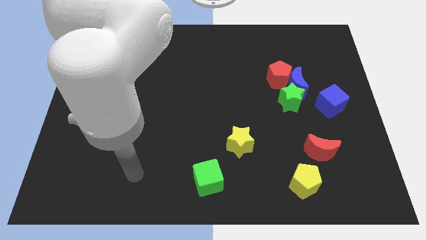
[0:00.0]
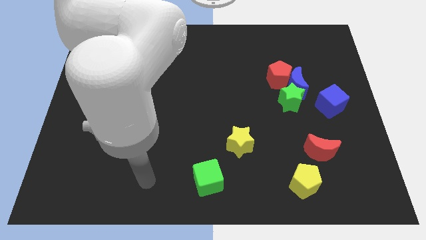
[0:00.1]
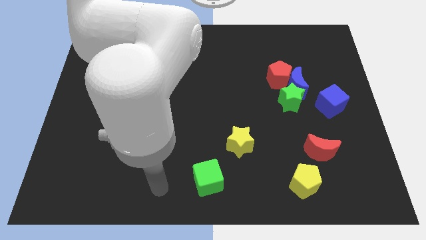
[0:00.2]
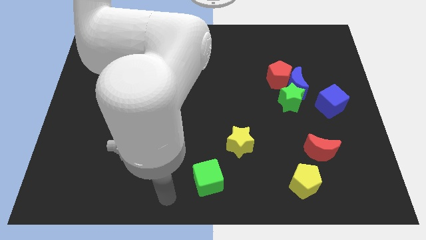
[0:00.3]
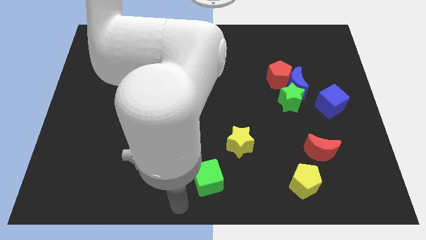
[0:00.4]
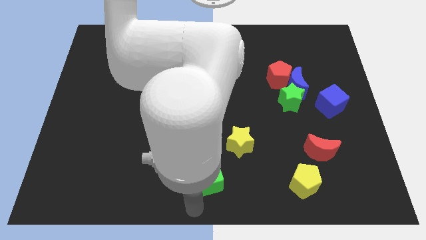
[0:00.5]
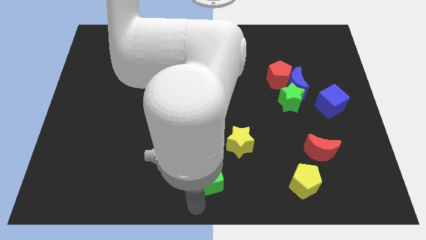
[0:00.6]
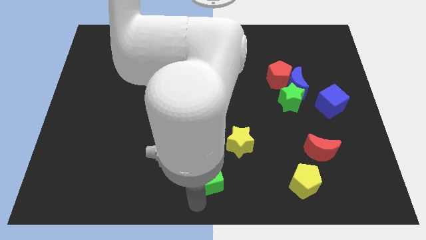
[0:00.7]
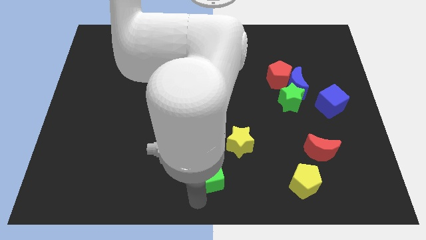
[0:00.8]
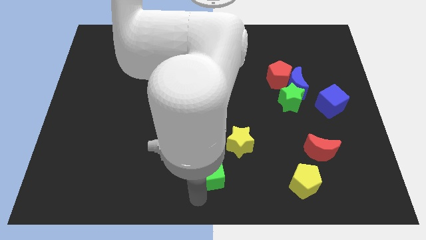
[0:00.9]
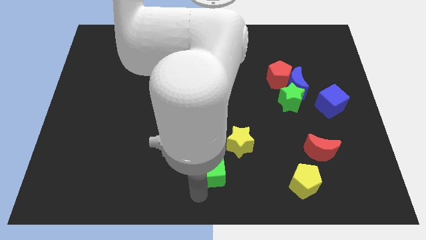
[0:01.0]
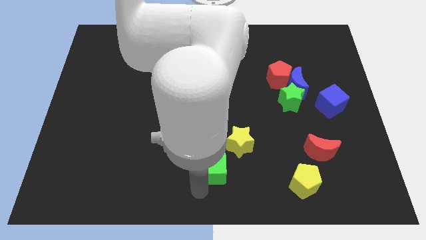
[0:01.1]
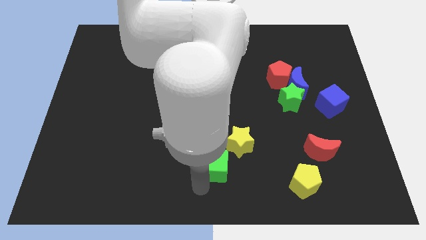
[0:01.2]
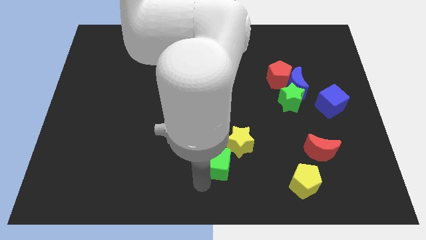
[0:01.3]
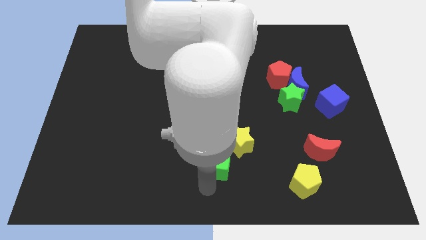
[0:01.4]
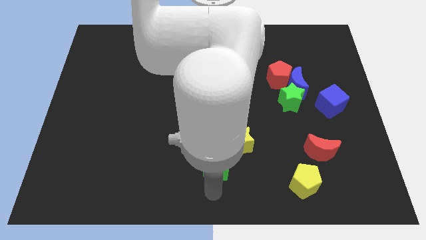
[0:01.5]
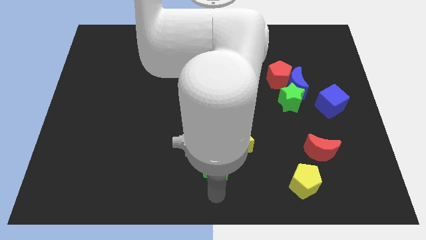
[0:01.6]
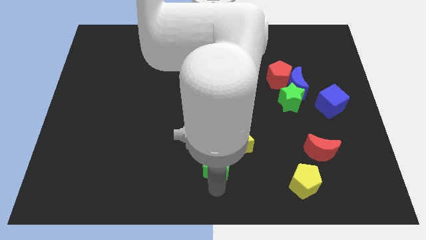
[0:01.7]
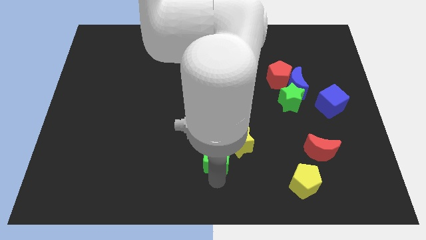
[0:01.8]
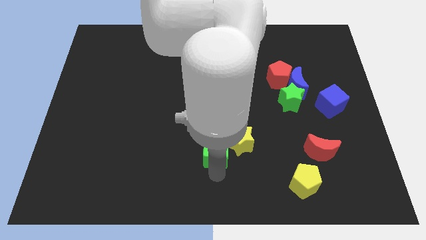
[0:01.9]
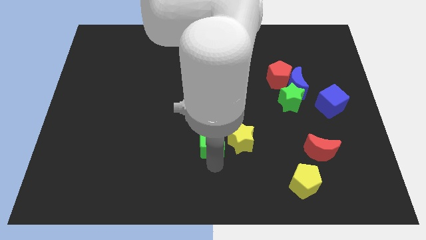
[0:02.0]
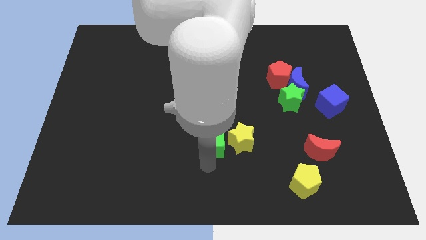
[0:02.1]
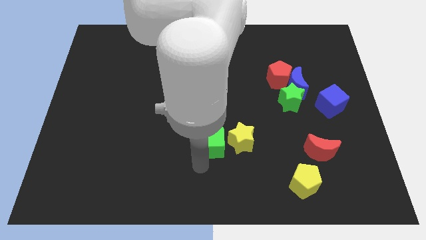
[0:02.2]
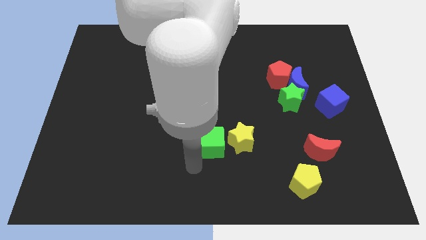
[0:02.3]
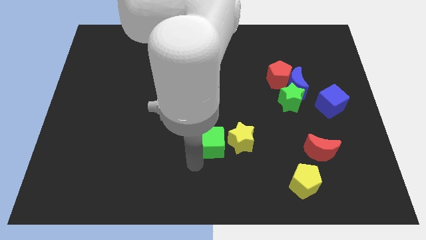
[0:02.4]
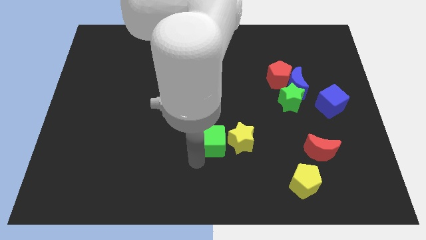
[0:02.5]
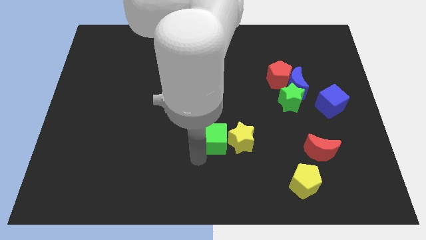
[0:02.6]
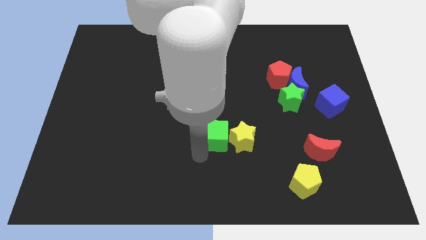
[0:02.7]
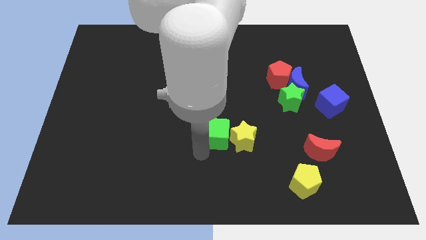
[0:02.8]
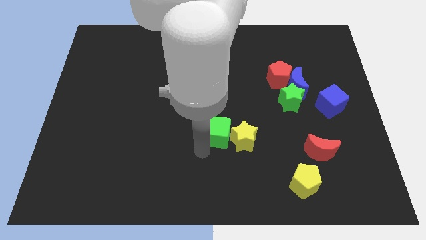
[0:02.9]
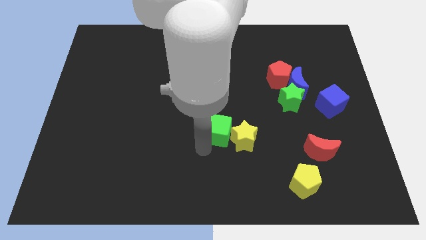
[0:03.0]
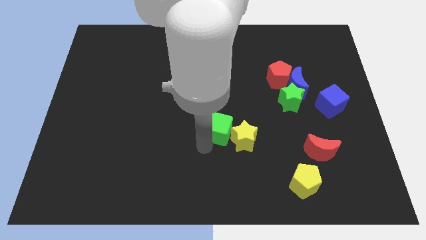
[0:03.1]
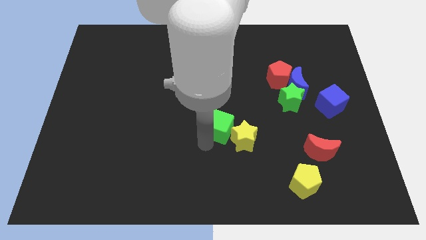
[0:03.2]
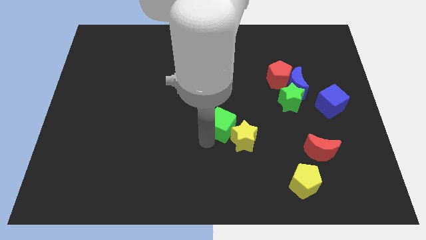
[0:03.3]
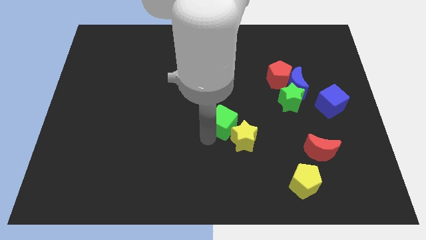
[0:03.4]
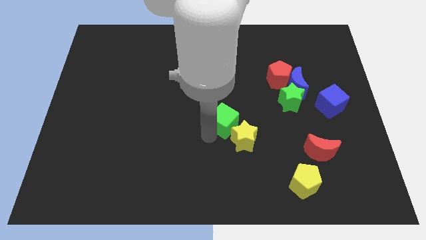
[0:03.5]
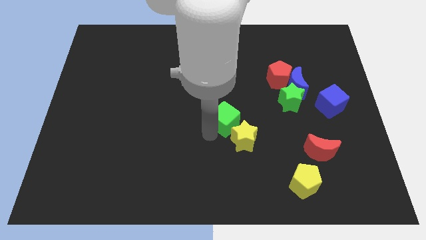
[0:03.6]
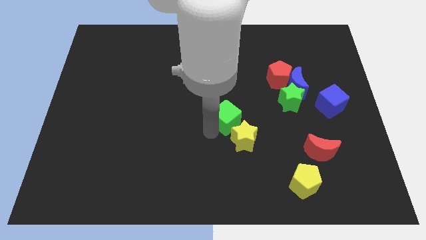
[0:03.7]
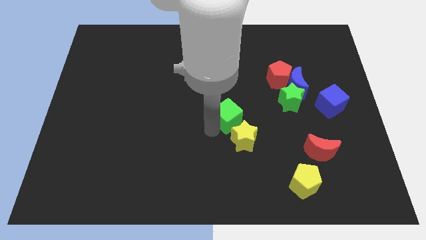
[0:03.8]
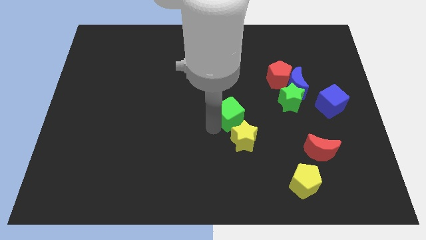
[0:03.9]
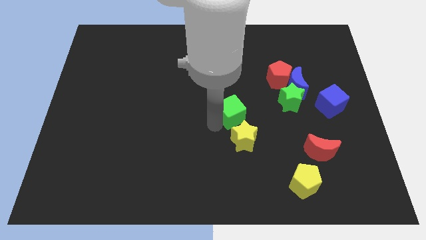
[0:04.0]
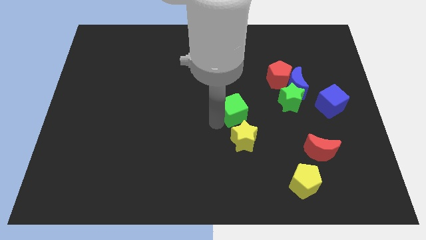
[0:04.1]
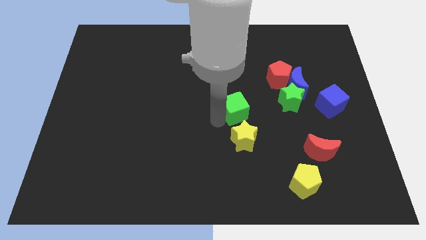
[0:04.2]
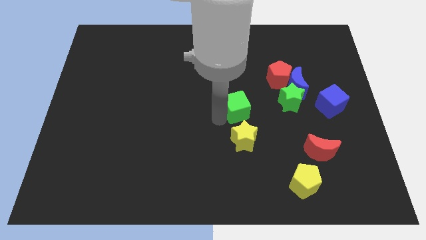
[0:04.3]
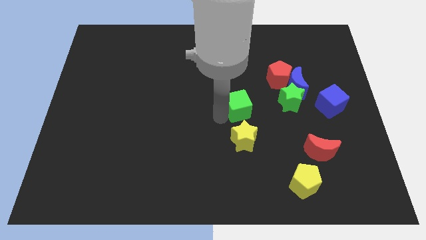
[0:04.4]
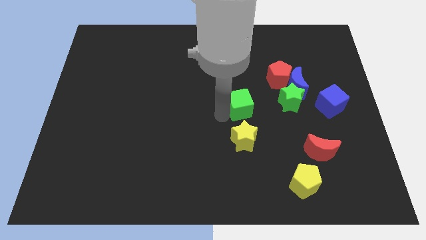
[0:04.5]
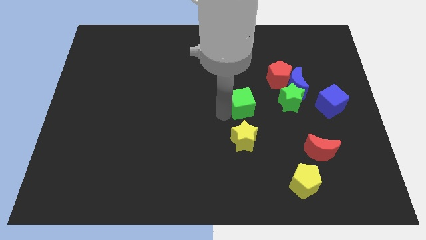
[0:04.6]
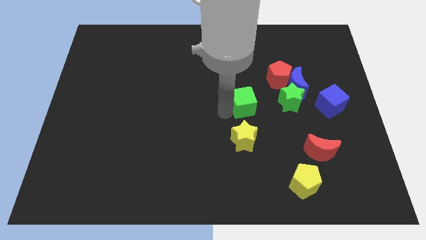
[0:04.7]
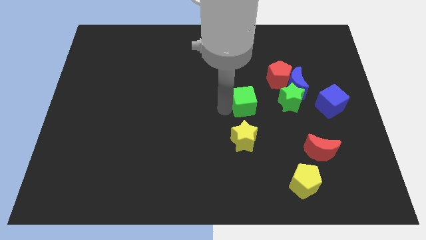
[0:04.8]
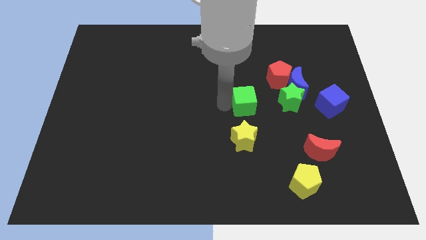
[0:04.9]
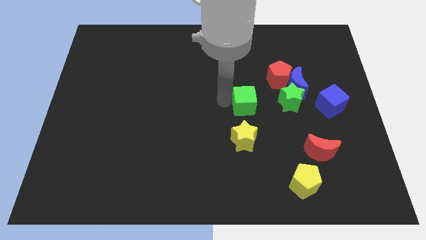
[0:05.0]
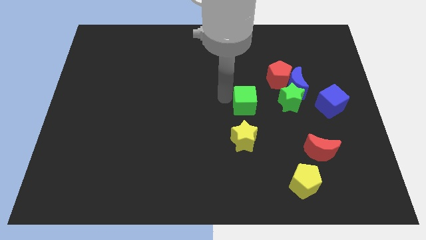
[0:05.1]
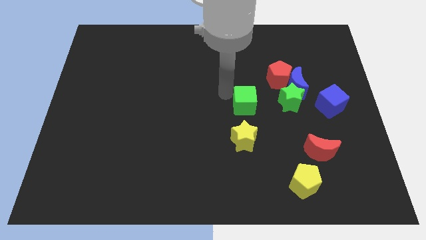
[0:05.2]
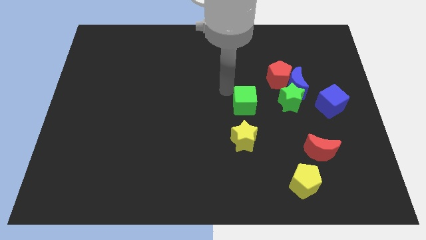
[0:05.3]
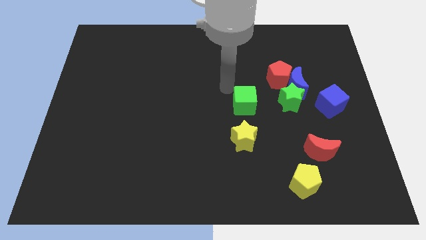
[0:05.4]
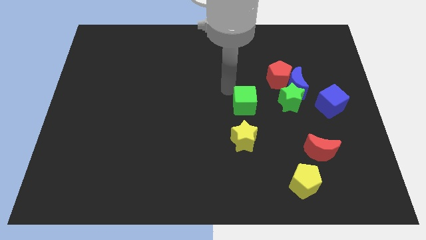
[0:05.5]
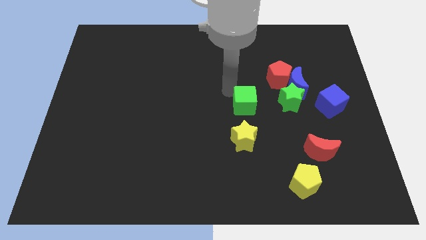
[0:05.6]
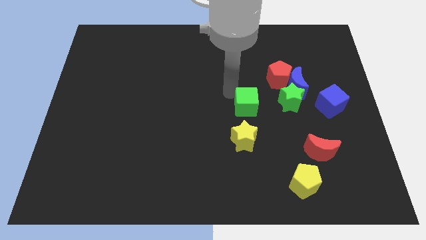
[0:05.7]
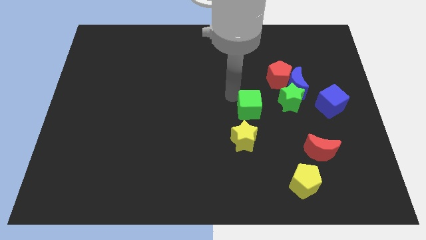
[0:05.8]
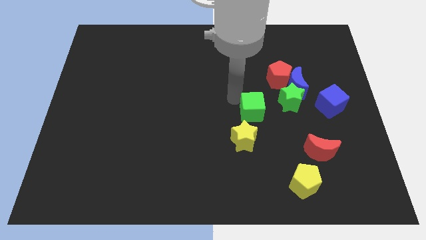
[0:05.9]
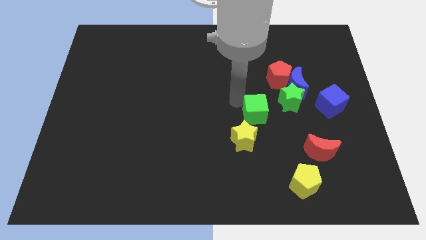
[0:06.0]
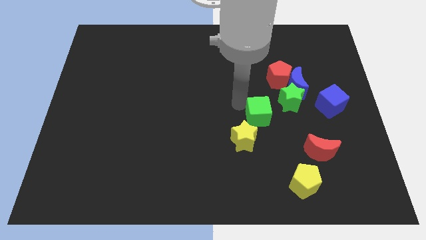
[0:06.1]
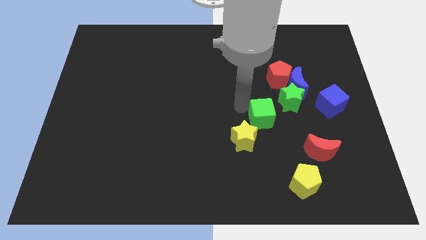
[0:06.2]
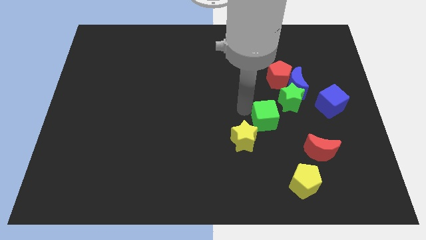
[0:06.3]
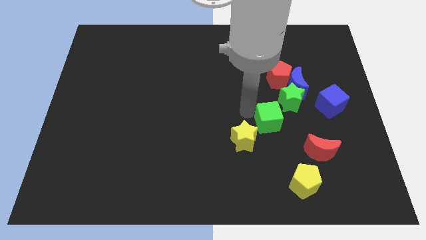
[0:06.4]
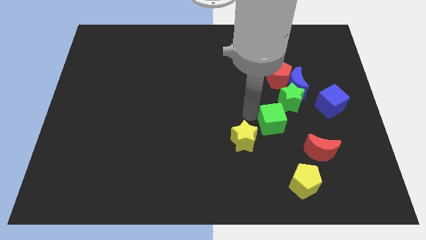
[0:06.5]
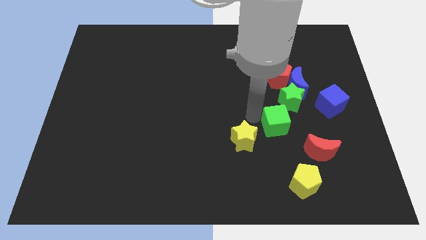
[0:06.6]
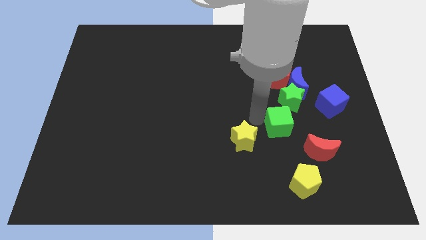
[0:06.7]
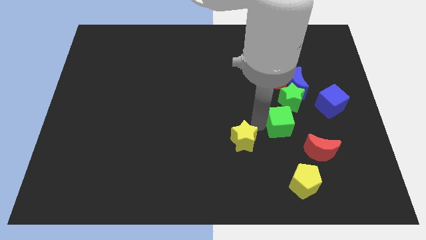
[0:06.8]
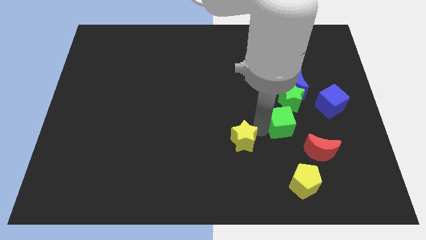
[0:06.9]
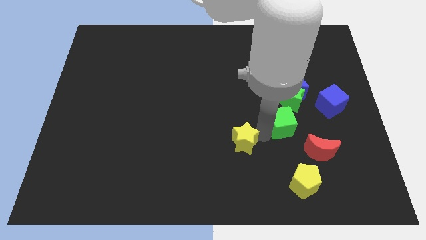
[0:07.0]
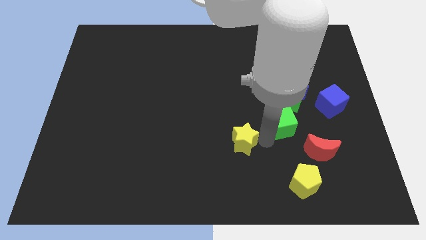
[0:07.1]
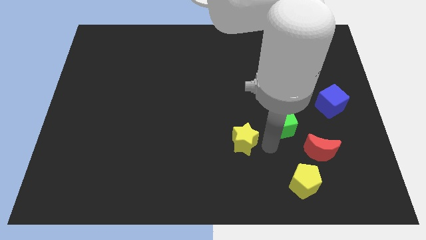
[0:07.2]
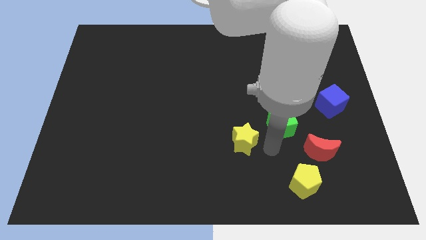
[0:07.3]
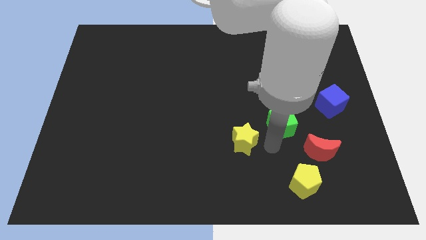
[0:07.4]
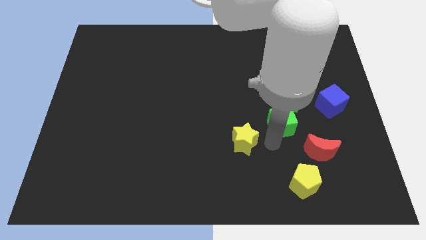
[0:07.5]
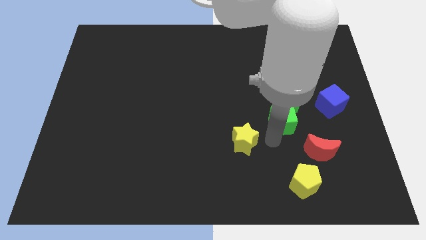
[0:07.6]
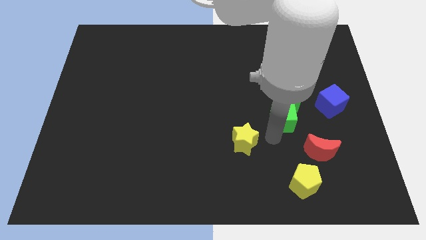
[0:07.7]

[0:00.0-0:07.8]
put the green cube next to the green star

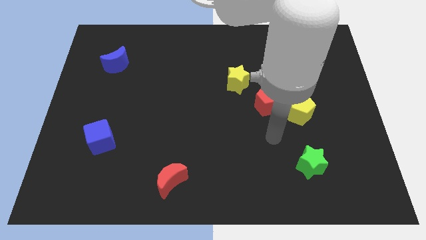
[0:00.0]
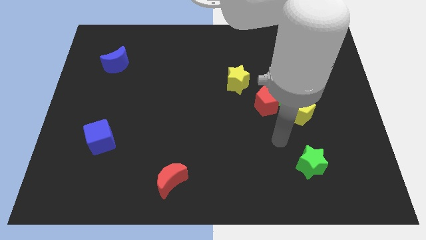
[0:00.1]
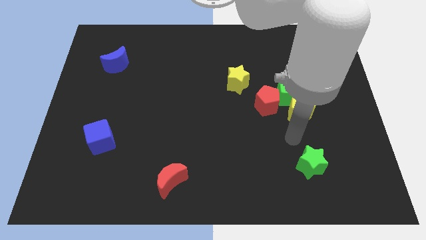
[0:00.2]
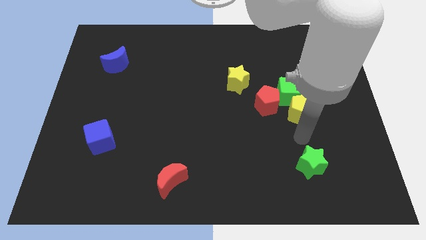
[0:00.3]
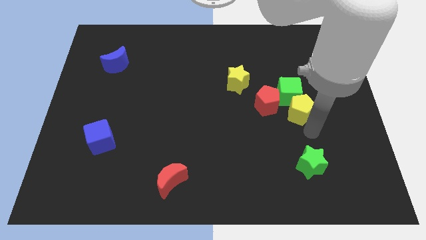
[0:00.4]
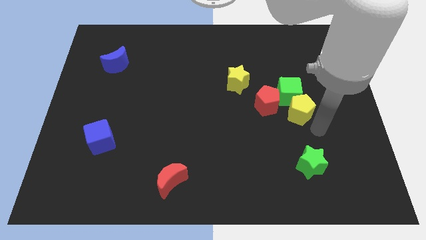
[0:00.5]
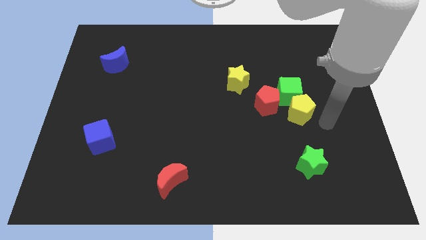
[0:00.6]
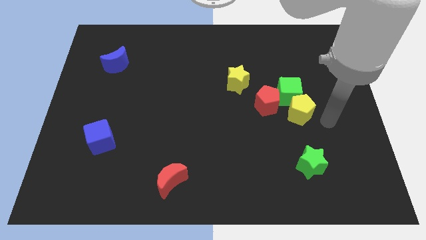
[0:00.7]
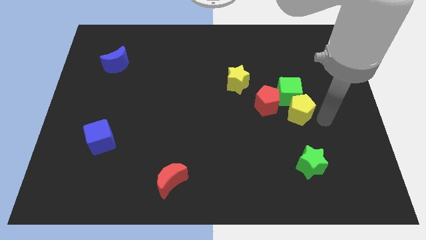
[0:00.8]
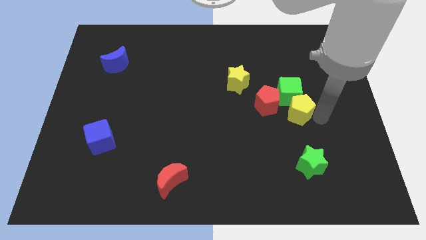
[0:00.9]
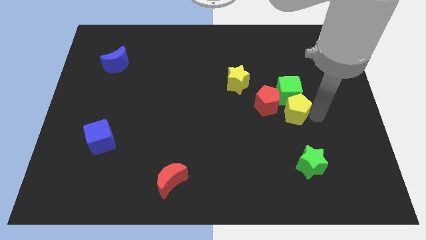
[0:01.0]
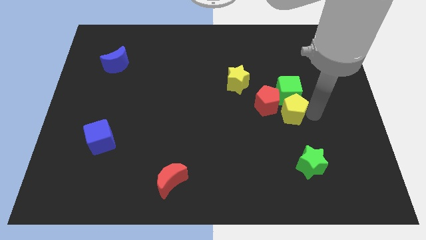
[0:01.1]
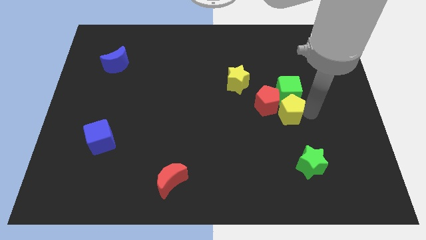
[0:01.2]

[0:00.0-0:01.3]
put the yellow pentagon towards the red pentagon
